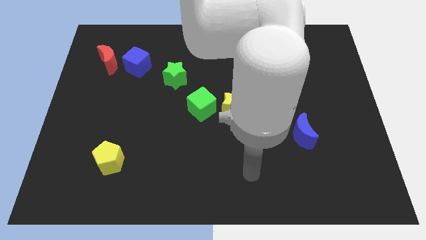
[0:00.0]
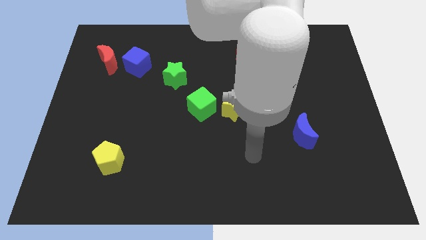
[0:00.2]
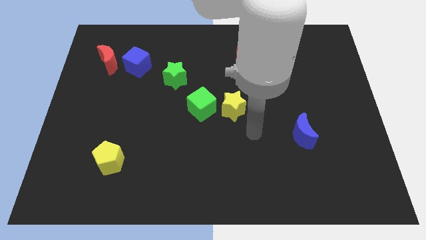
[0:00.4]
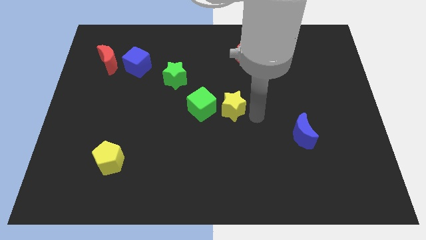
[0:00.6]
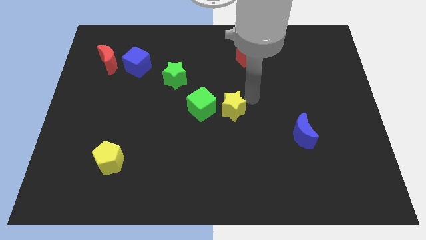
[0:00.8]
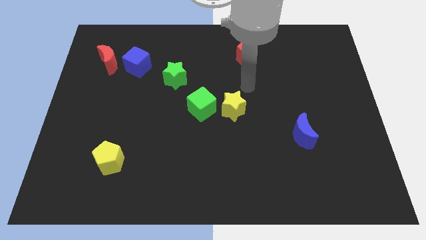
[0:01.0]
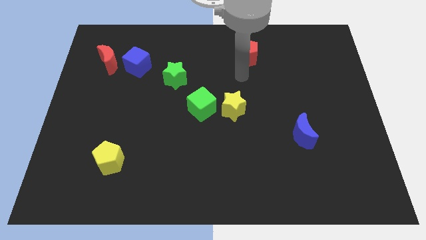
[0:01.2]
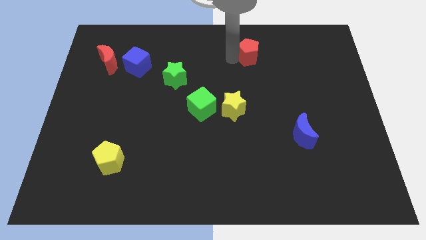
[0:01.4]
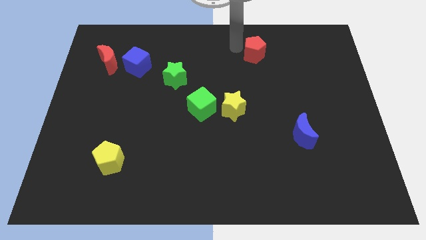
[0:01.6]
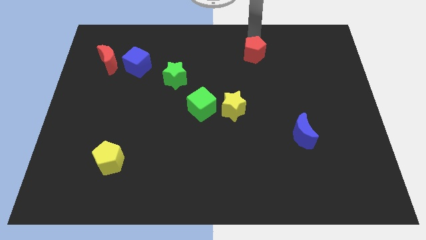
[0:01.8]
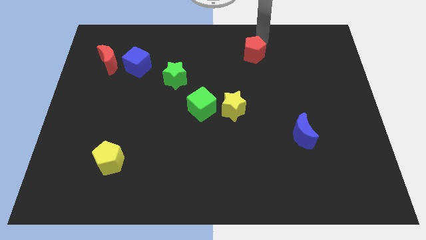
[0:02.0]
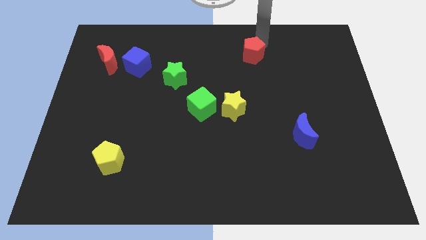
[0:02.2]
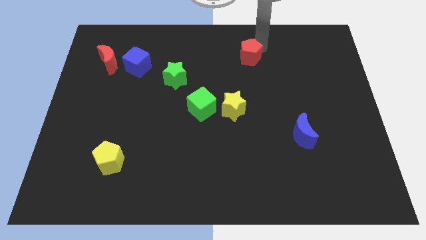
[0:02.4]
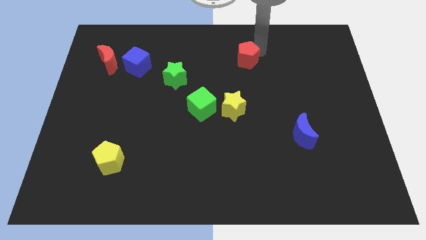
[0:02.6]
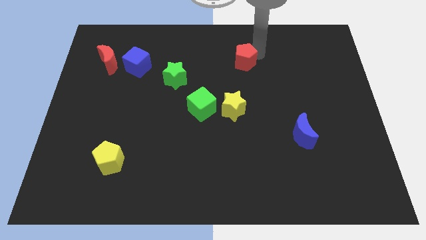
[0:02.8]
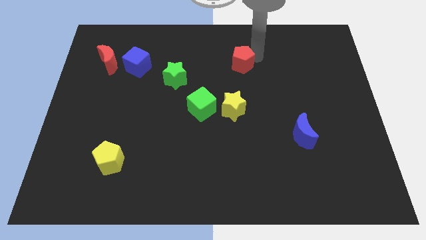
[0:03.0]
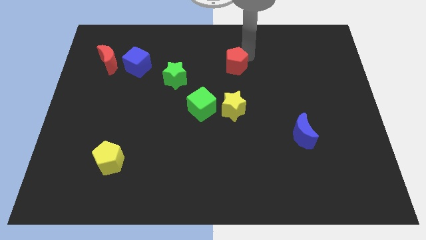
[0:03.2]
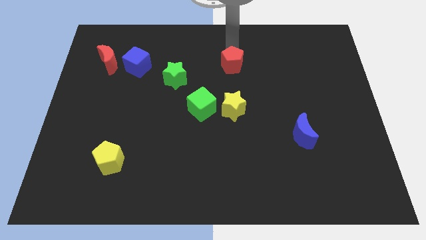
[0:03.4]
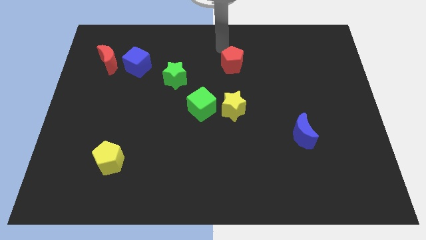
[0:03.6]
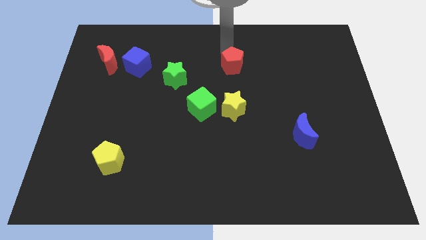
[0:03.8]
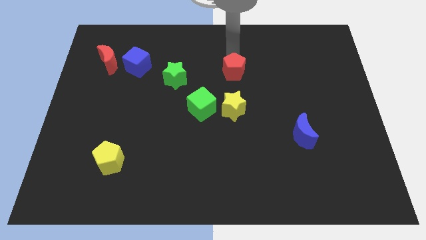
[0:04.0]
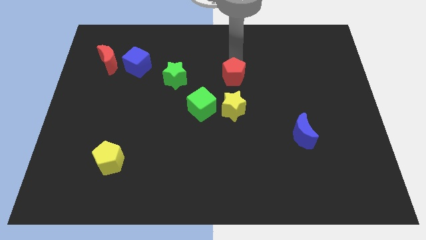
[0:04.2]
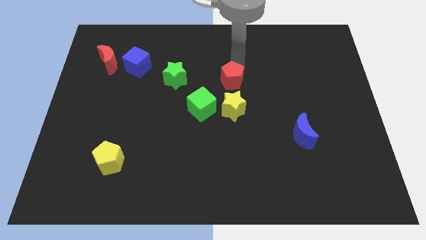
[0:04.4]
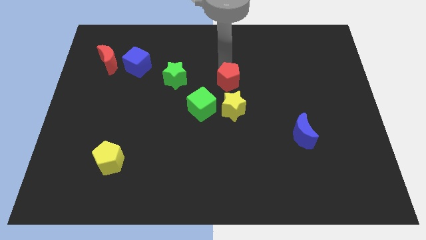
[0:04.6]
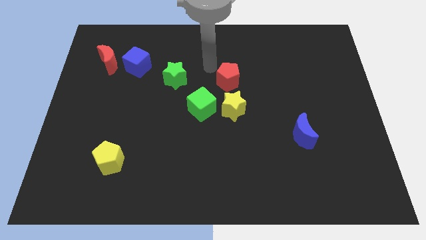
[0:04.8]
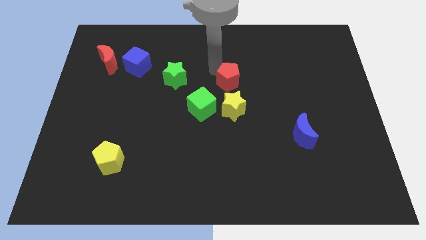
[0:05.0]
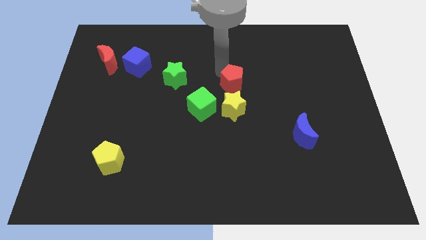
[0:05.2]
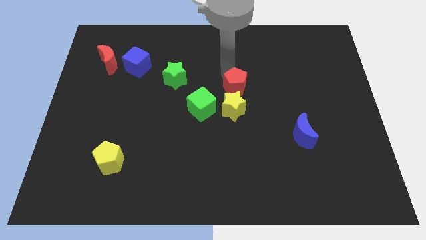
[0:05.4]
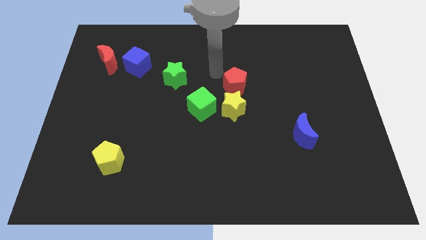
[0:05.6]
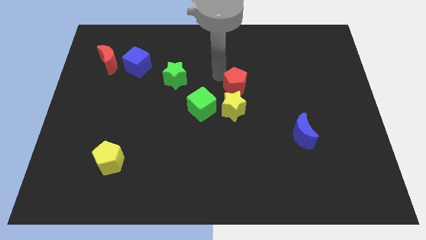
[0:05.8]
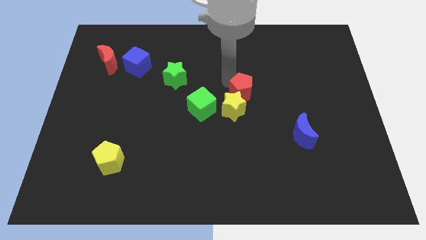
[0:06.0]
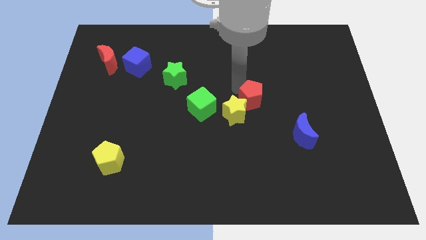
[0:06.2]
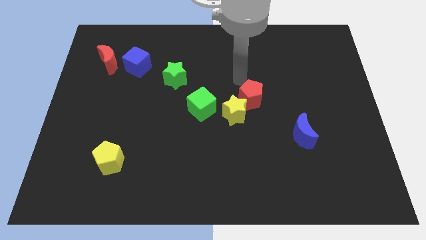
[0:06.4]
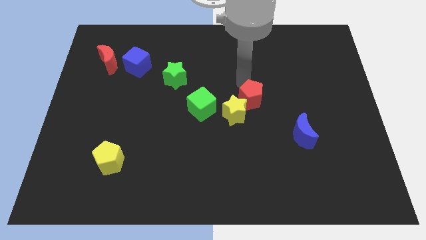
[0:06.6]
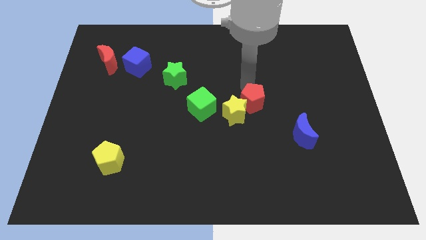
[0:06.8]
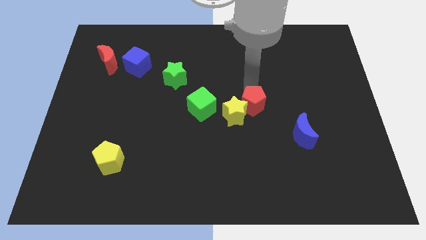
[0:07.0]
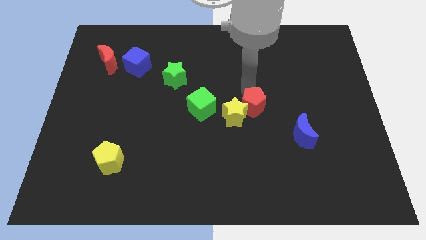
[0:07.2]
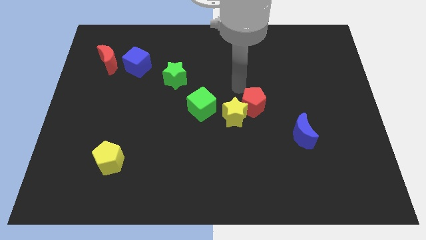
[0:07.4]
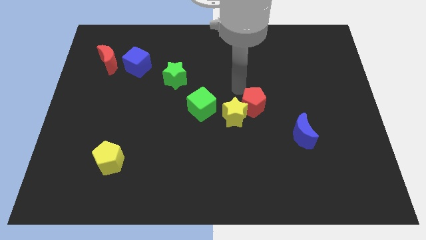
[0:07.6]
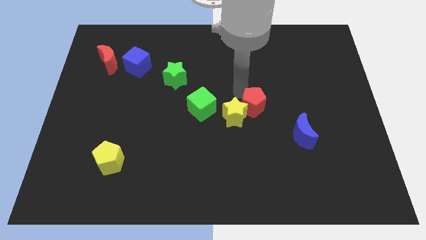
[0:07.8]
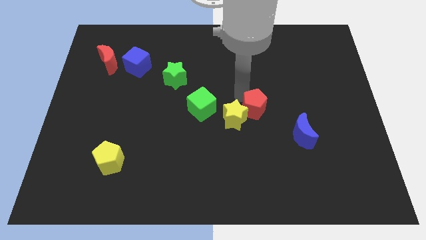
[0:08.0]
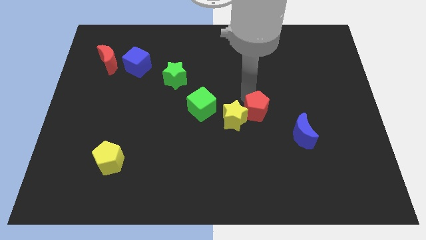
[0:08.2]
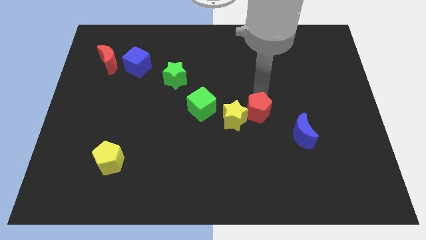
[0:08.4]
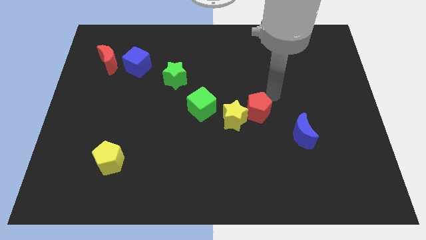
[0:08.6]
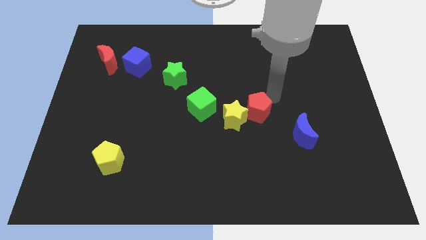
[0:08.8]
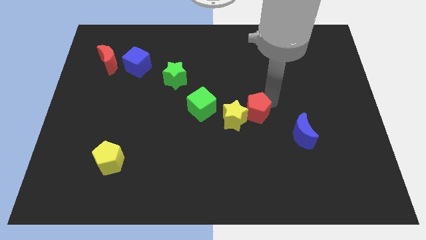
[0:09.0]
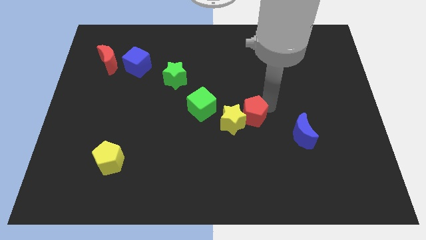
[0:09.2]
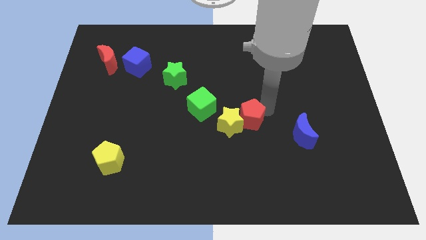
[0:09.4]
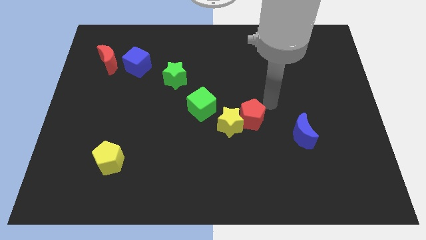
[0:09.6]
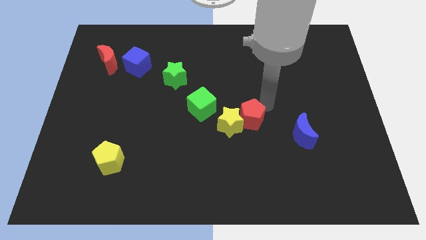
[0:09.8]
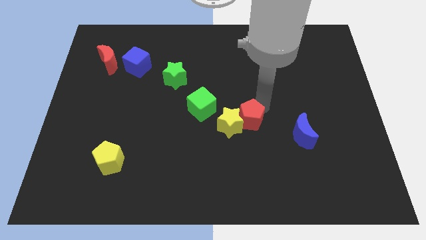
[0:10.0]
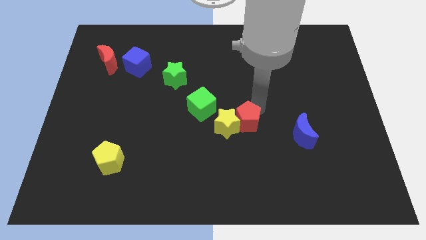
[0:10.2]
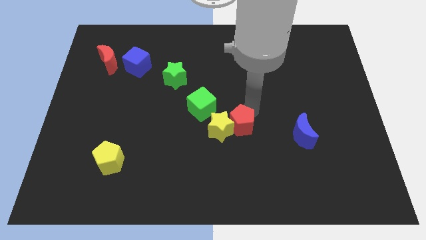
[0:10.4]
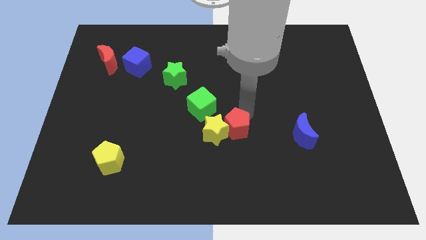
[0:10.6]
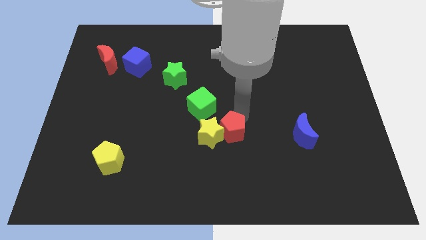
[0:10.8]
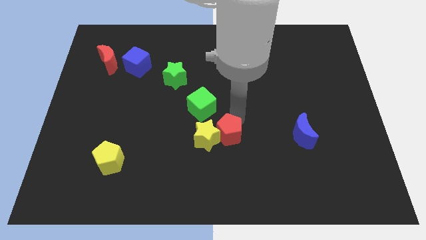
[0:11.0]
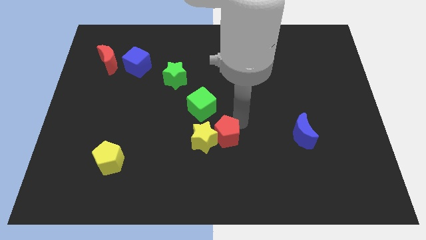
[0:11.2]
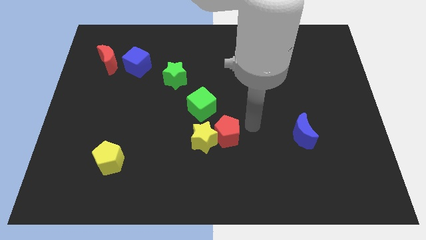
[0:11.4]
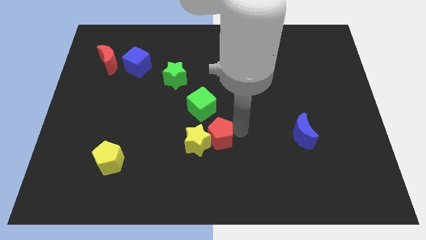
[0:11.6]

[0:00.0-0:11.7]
move the red pentagon below the green cube

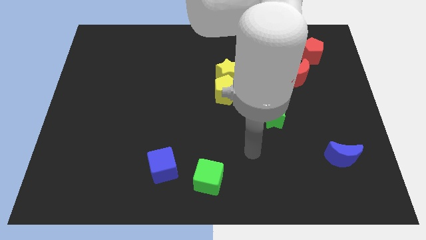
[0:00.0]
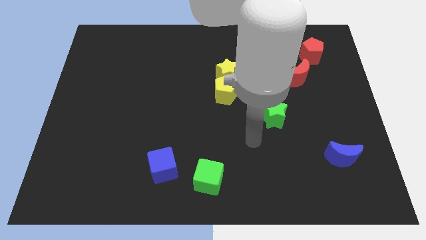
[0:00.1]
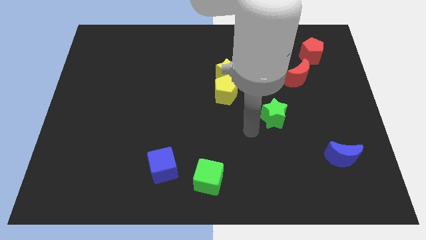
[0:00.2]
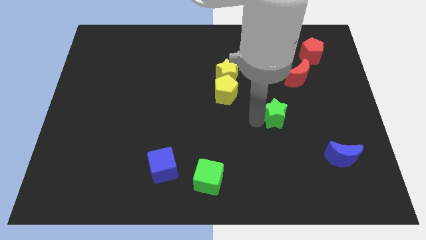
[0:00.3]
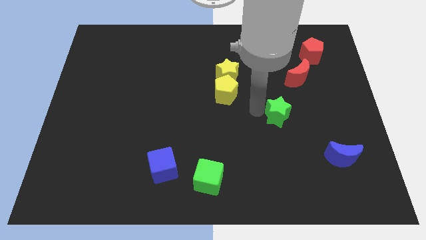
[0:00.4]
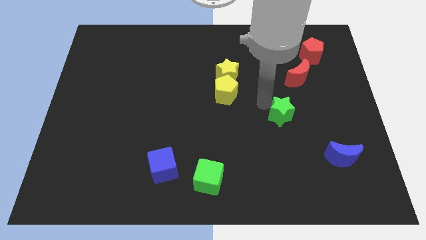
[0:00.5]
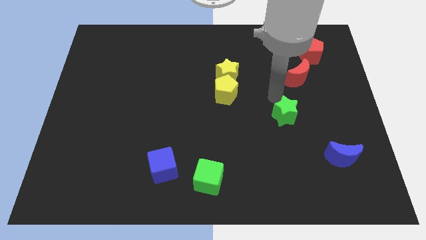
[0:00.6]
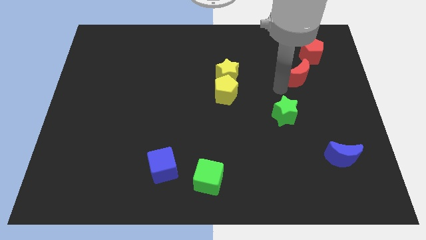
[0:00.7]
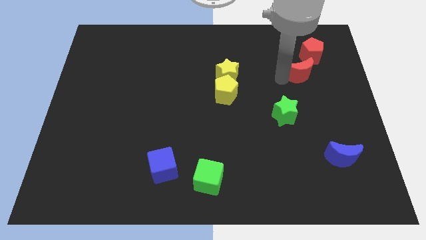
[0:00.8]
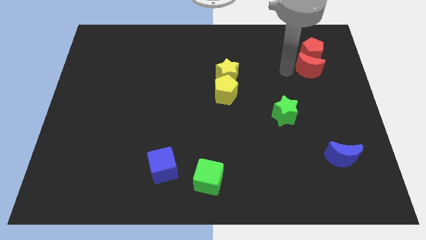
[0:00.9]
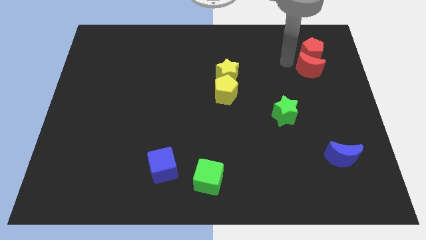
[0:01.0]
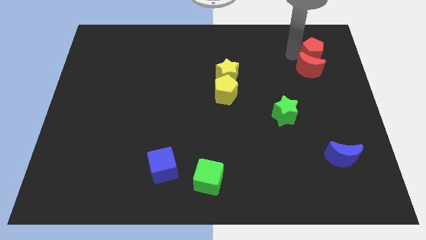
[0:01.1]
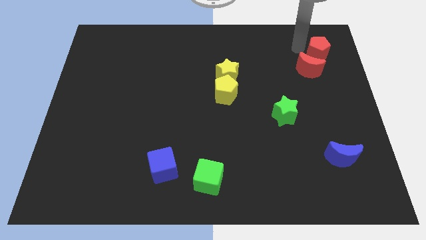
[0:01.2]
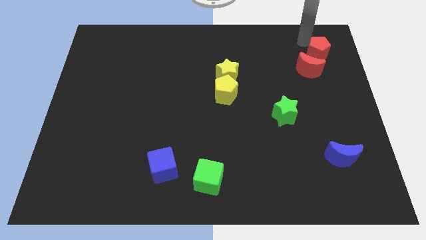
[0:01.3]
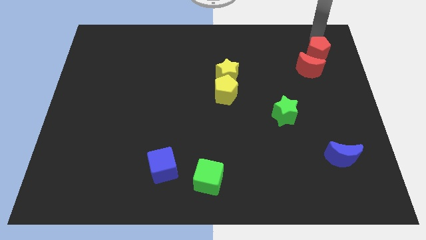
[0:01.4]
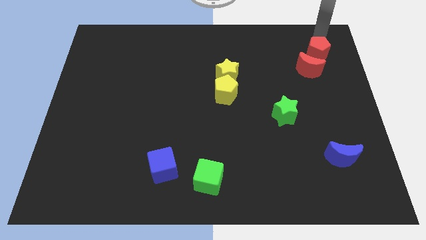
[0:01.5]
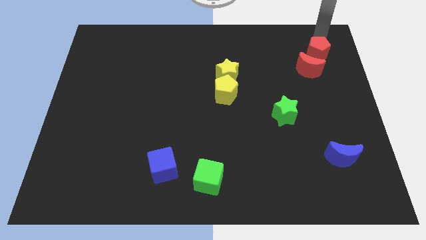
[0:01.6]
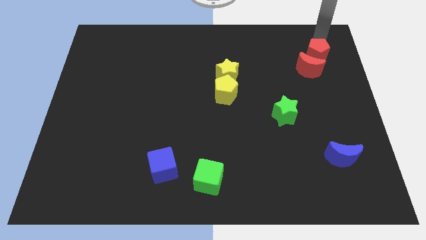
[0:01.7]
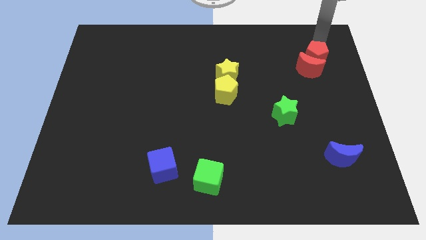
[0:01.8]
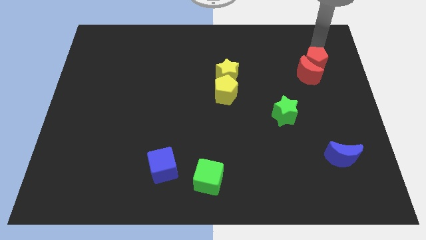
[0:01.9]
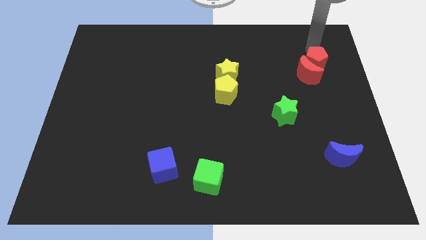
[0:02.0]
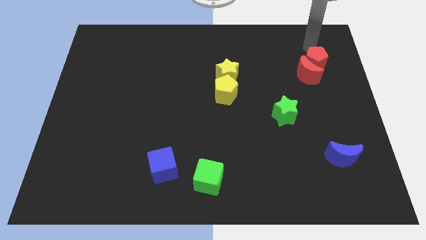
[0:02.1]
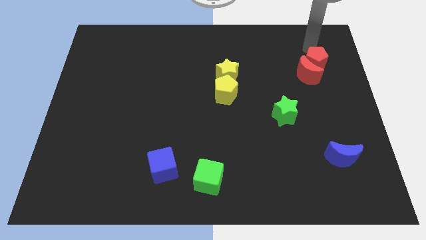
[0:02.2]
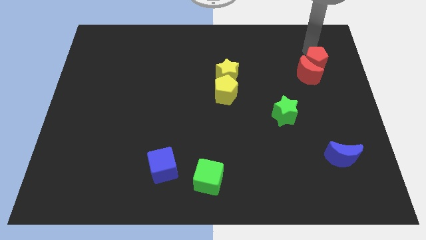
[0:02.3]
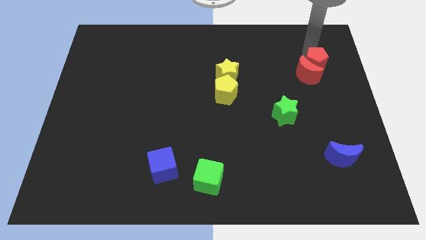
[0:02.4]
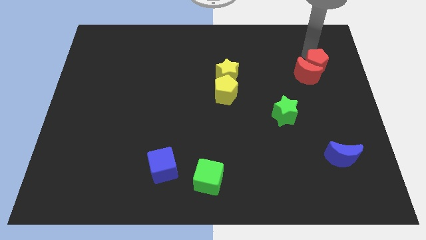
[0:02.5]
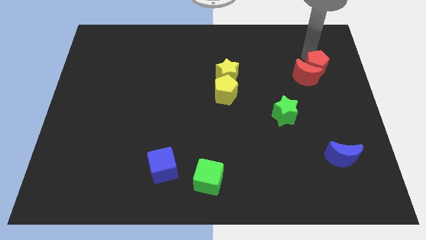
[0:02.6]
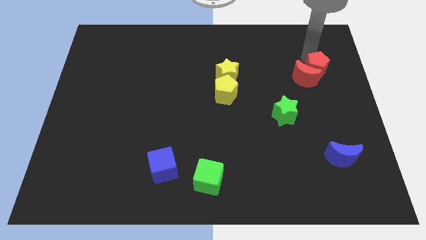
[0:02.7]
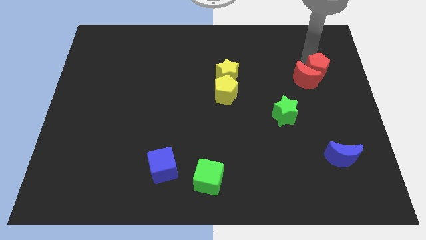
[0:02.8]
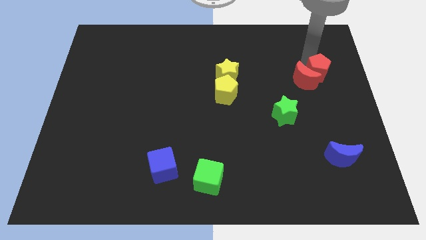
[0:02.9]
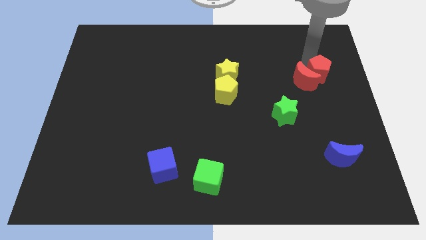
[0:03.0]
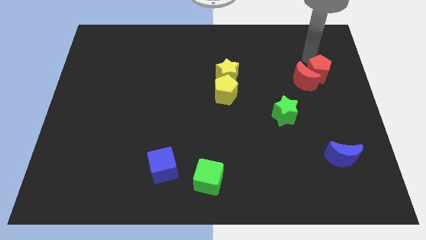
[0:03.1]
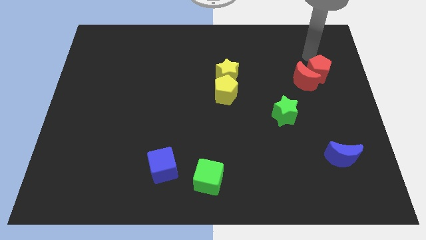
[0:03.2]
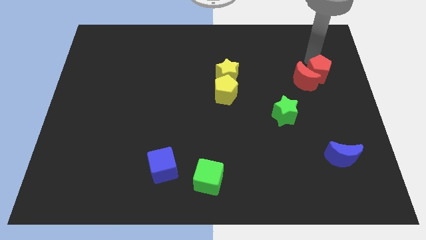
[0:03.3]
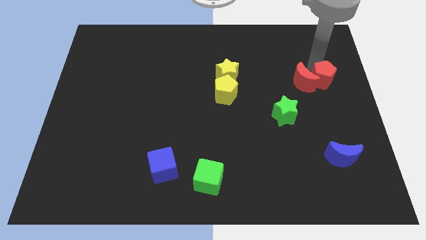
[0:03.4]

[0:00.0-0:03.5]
put the red pentagon to the bottom right side of the red moon
